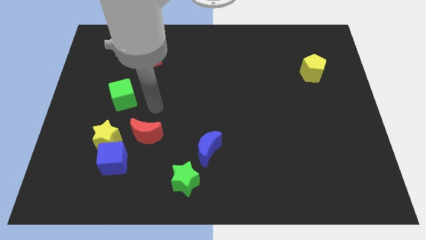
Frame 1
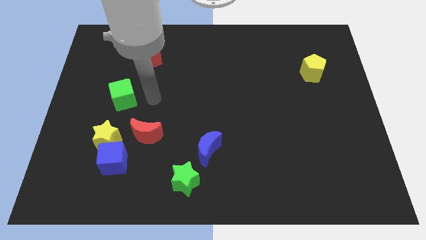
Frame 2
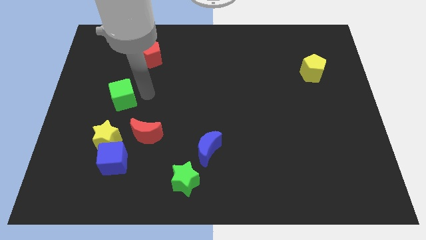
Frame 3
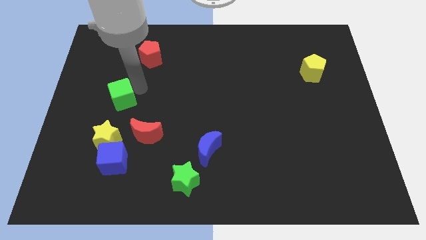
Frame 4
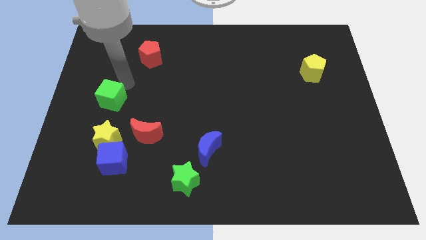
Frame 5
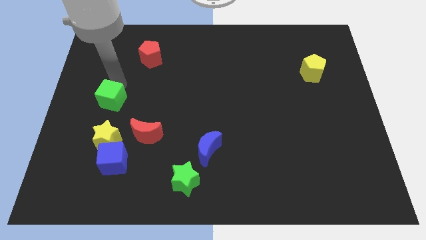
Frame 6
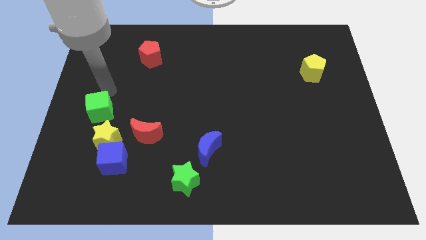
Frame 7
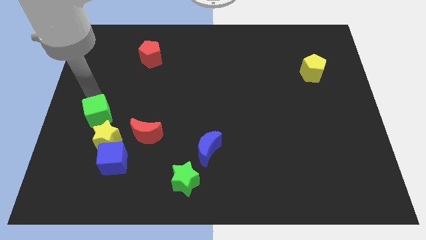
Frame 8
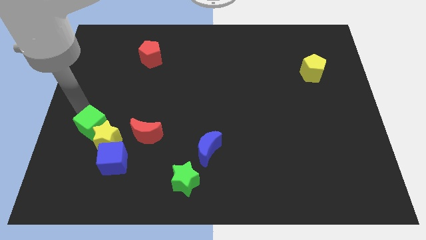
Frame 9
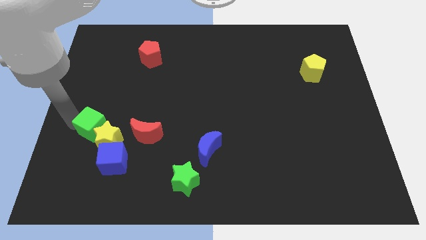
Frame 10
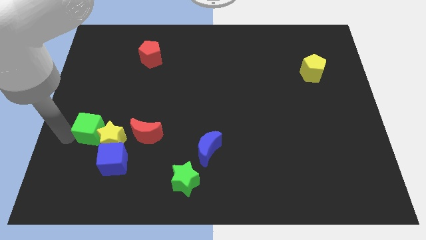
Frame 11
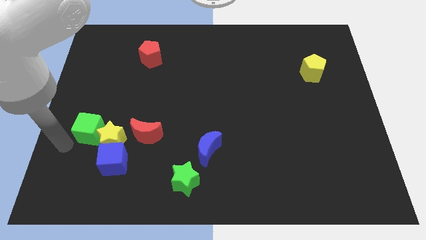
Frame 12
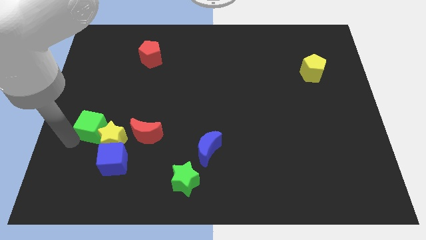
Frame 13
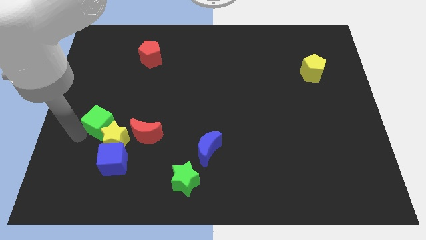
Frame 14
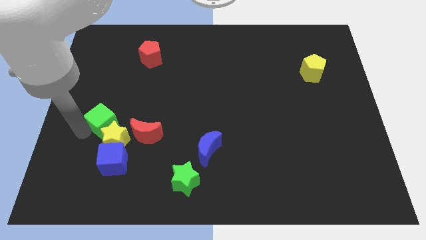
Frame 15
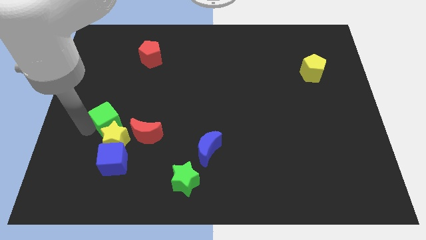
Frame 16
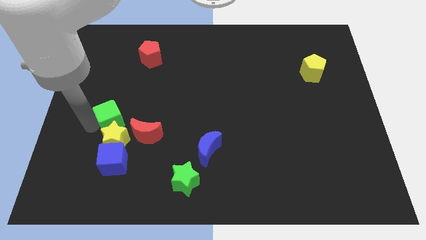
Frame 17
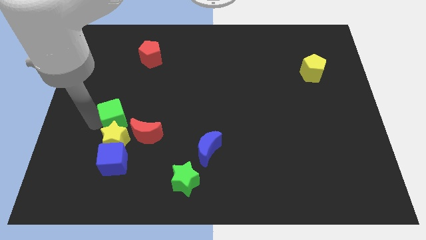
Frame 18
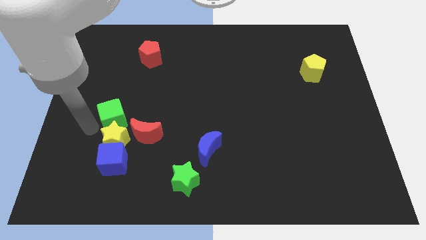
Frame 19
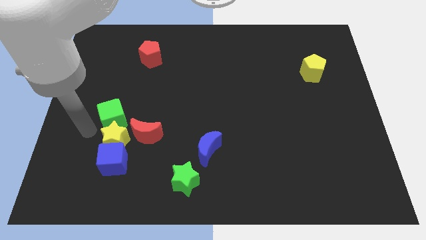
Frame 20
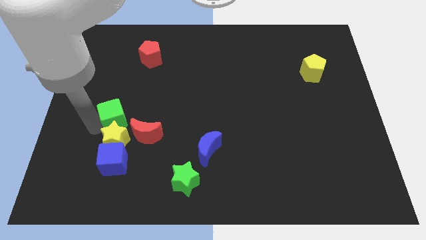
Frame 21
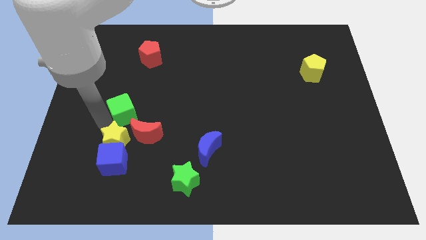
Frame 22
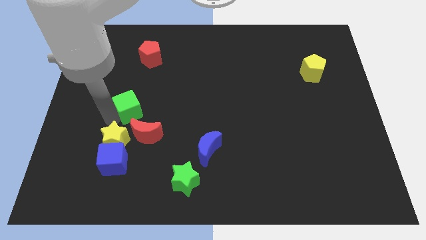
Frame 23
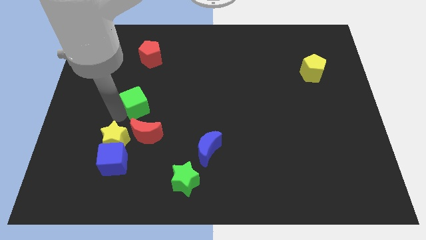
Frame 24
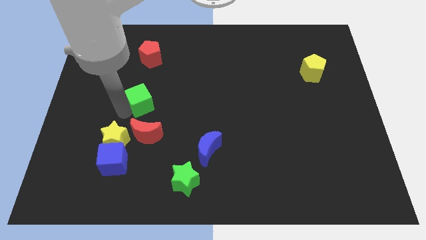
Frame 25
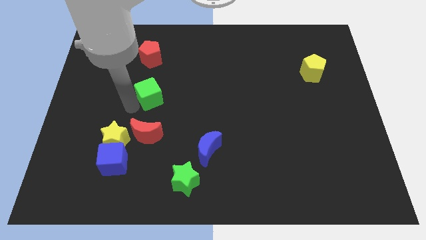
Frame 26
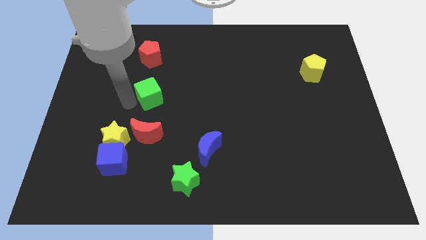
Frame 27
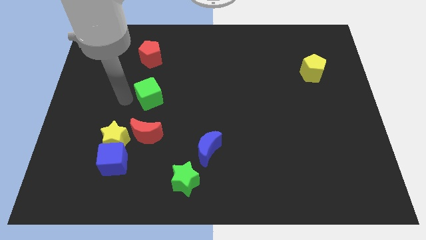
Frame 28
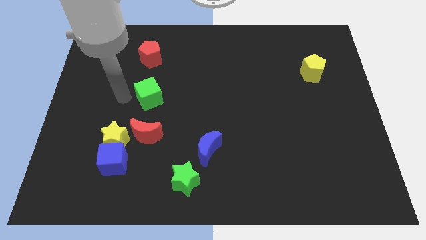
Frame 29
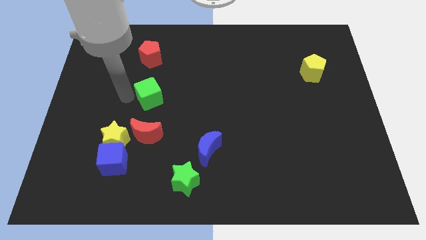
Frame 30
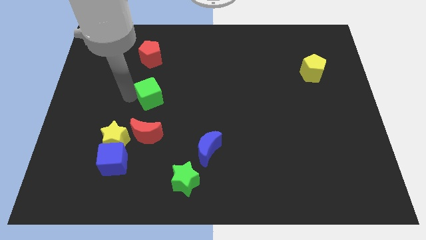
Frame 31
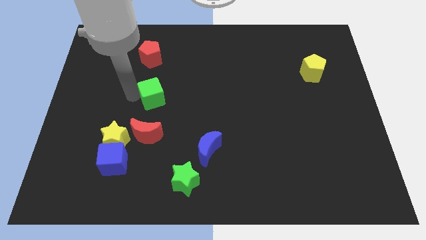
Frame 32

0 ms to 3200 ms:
push the green cube a little right

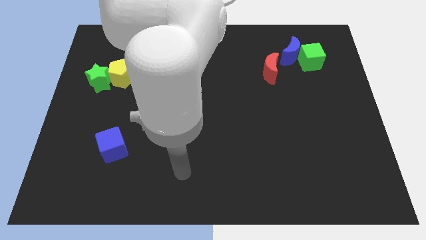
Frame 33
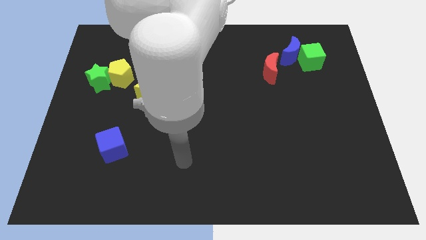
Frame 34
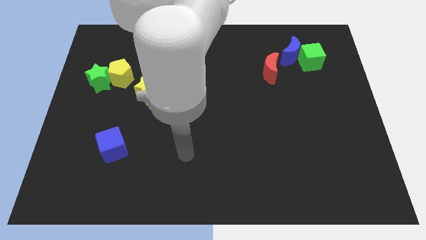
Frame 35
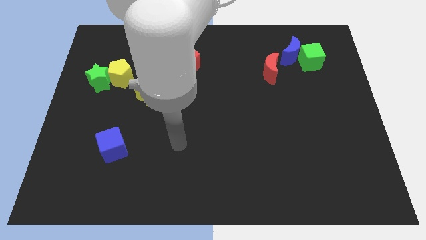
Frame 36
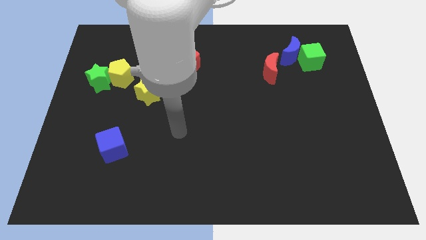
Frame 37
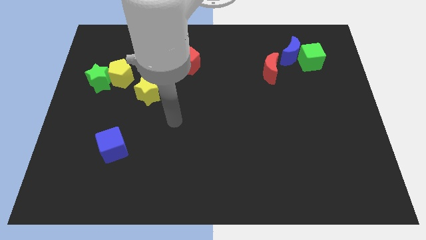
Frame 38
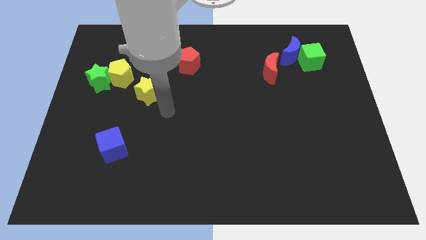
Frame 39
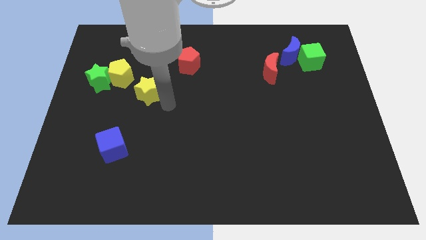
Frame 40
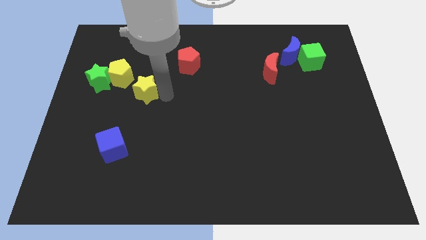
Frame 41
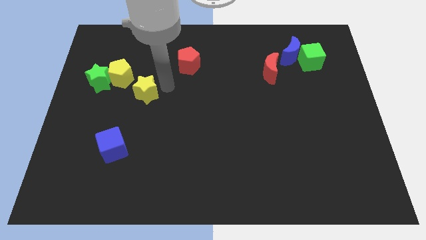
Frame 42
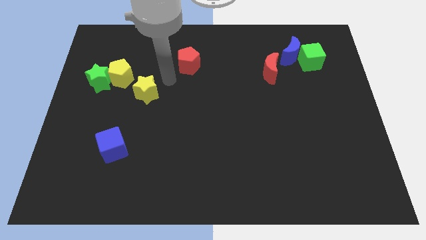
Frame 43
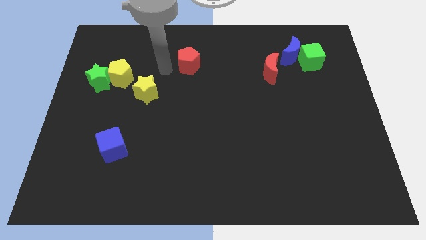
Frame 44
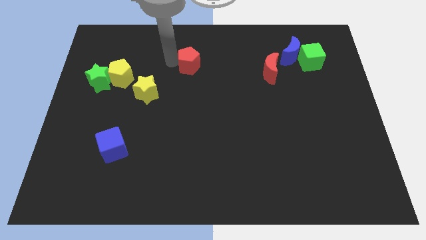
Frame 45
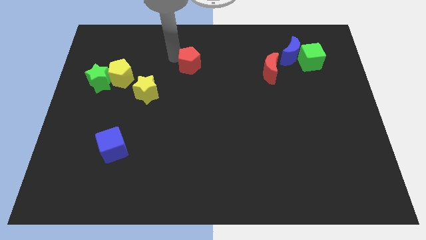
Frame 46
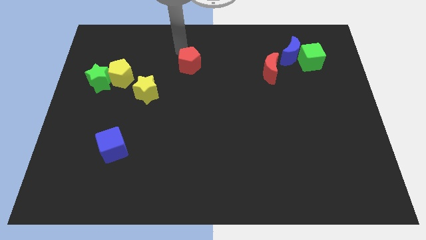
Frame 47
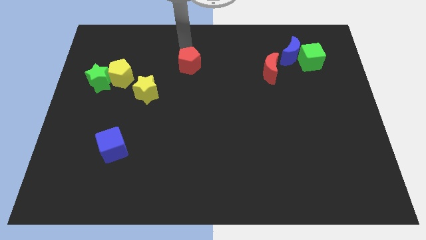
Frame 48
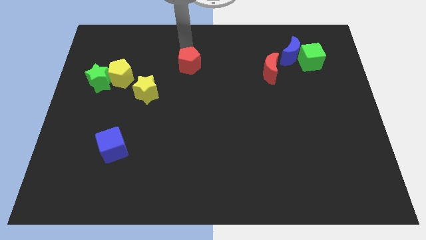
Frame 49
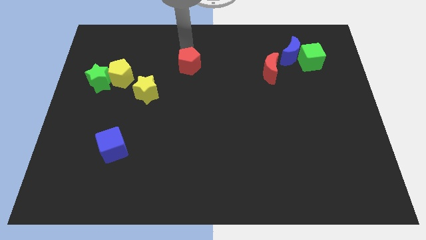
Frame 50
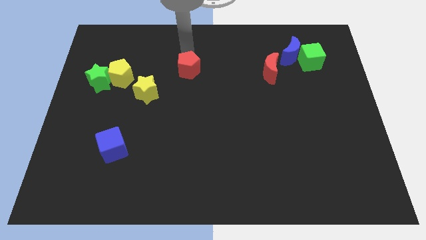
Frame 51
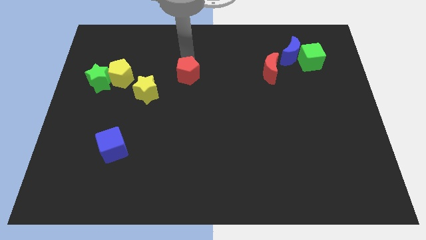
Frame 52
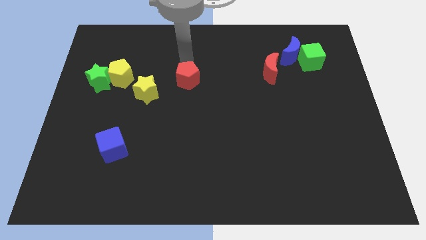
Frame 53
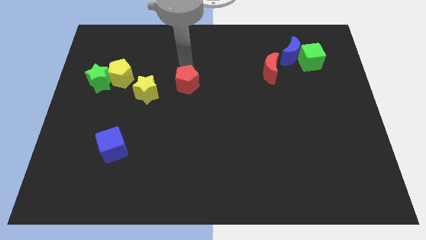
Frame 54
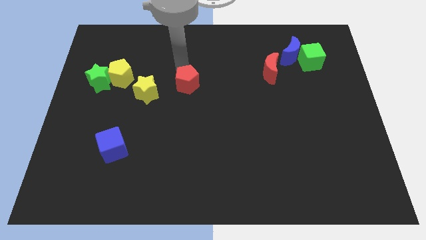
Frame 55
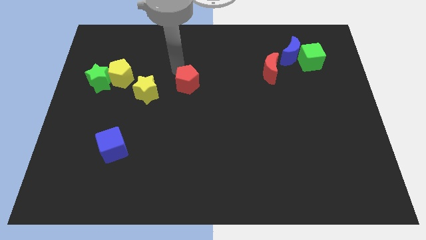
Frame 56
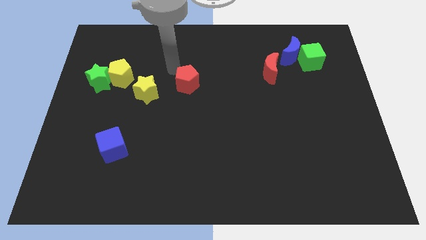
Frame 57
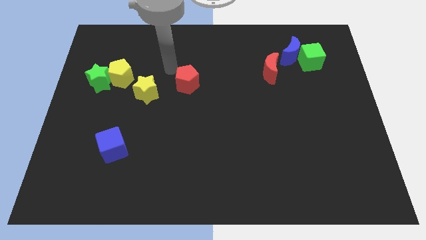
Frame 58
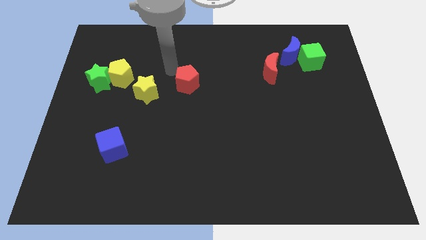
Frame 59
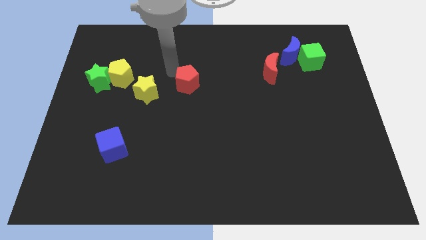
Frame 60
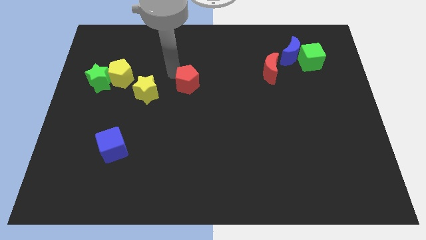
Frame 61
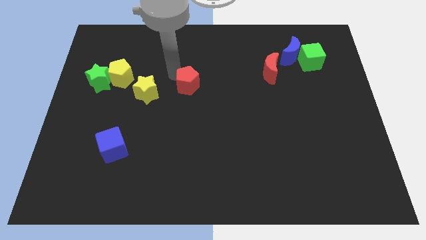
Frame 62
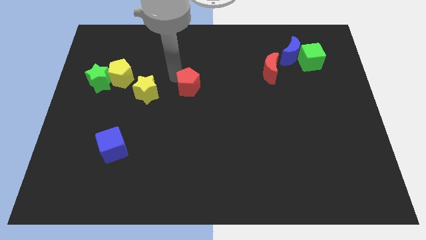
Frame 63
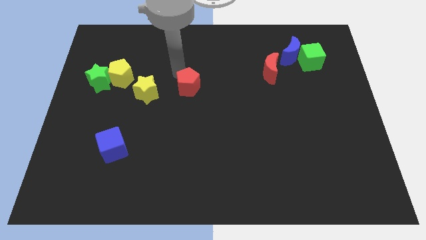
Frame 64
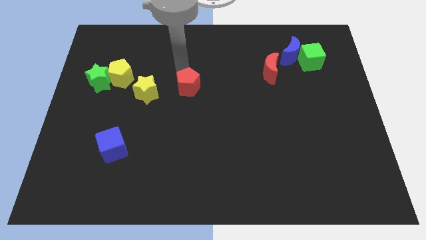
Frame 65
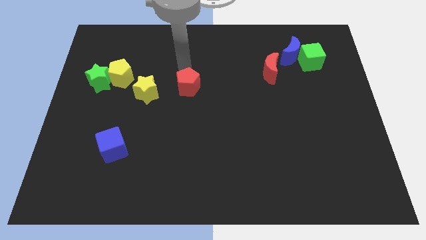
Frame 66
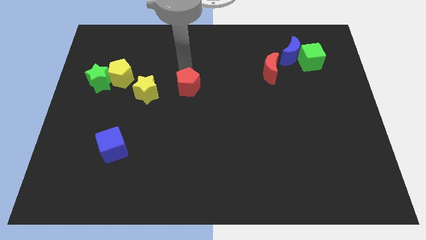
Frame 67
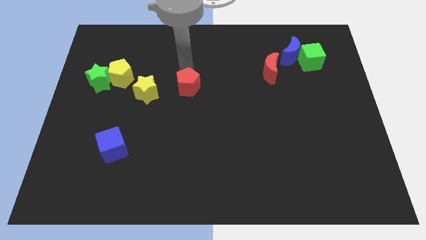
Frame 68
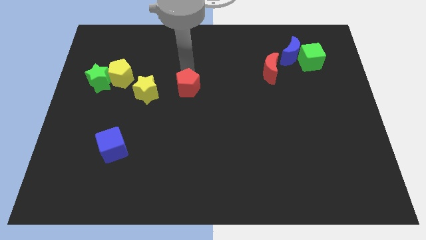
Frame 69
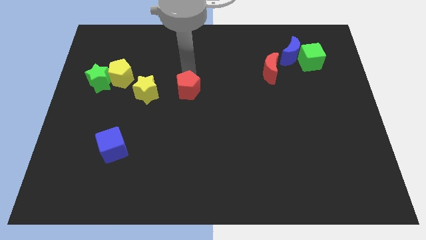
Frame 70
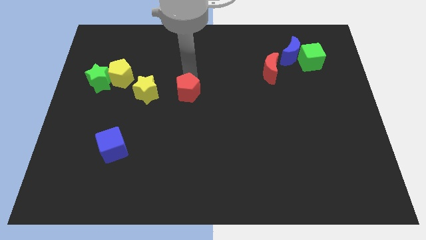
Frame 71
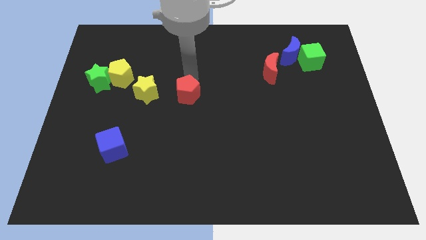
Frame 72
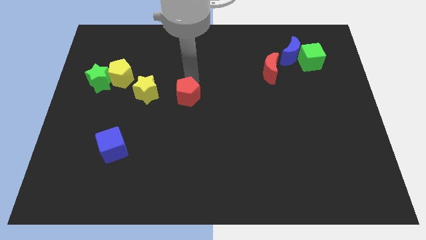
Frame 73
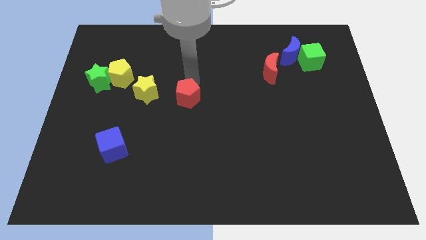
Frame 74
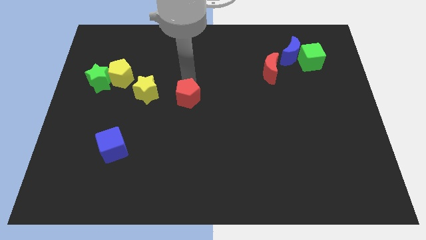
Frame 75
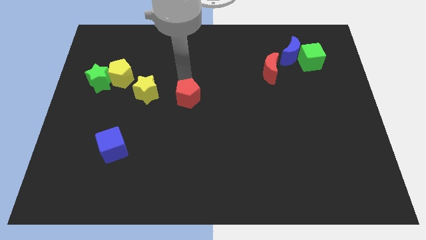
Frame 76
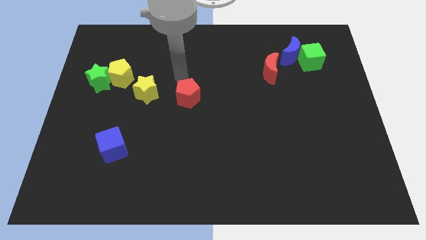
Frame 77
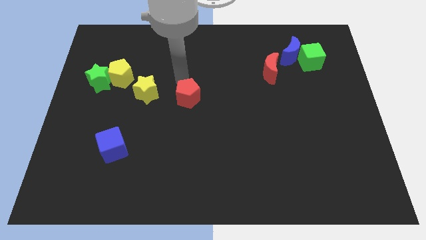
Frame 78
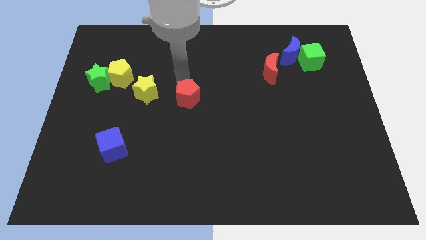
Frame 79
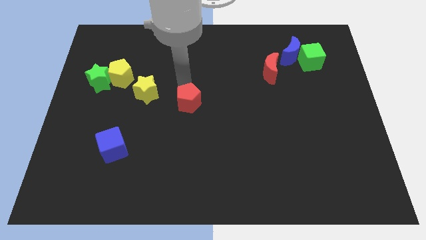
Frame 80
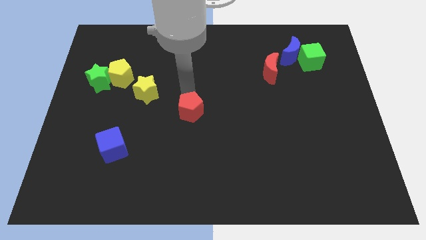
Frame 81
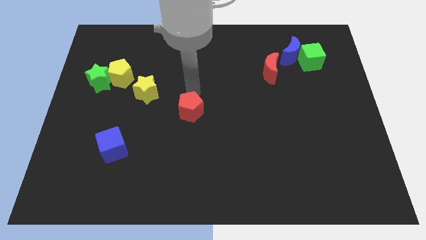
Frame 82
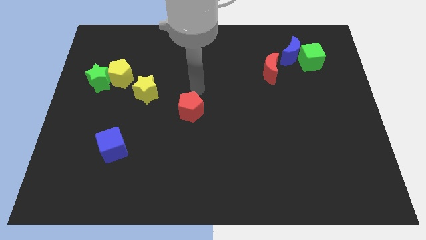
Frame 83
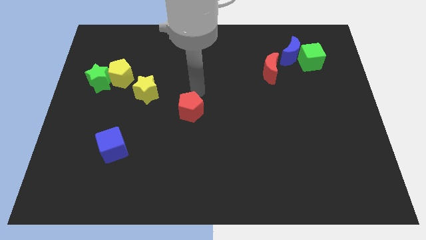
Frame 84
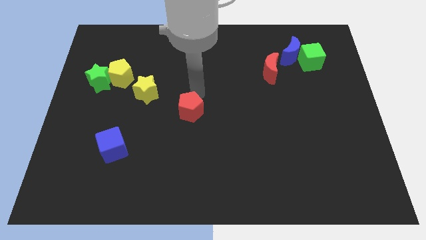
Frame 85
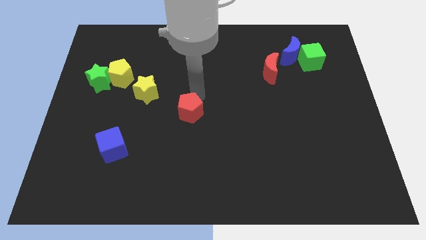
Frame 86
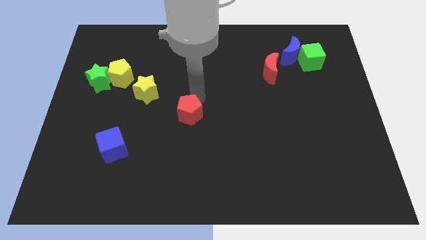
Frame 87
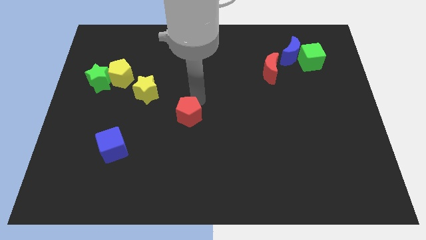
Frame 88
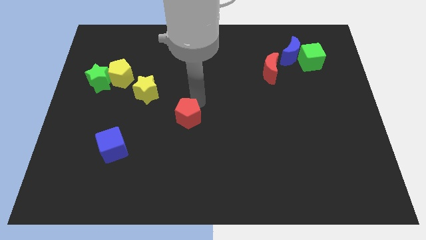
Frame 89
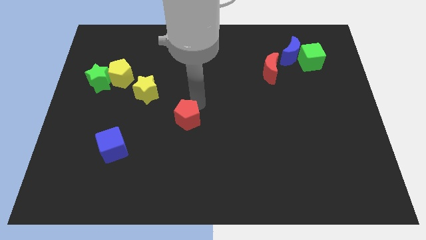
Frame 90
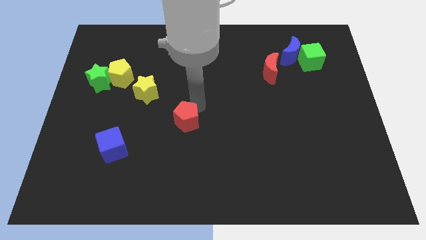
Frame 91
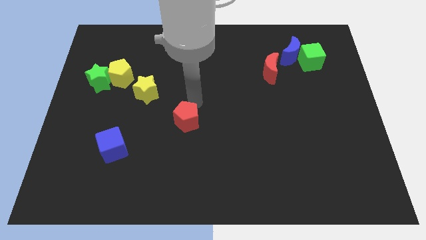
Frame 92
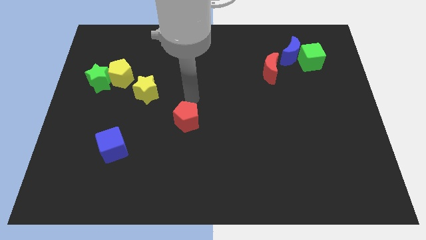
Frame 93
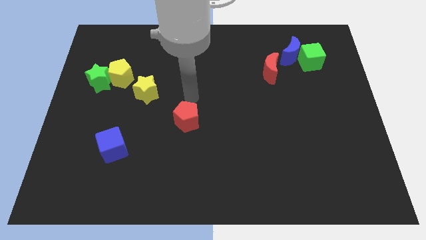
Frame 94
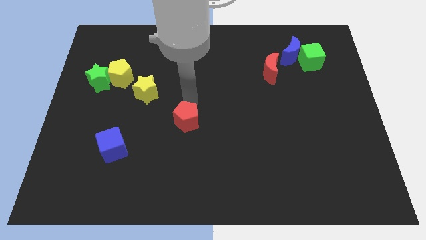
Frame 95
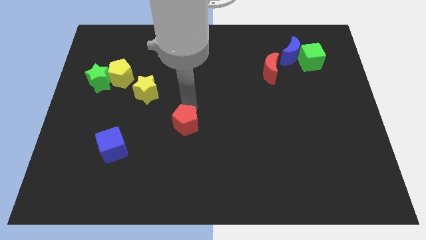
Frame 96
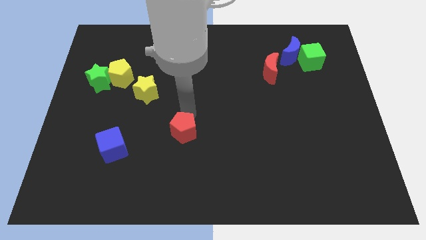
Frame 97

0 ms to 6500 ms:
push the red pentagon down
